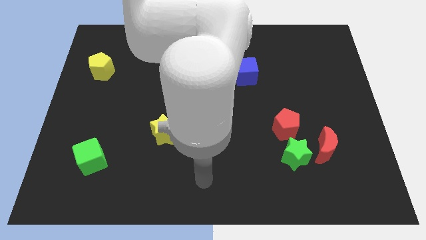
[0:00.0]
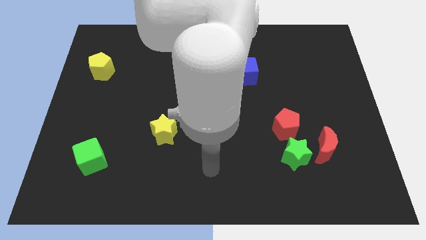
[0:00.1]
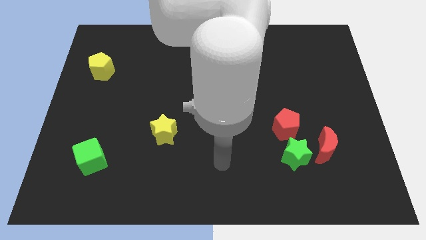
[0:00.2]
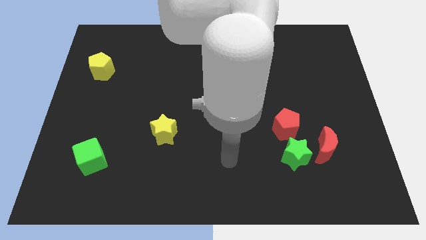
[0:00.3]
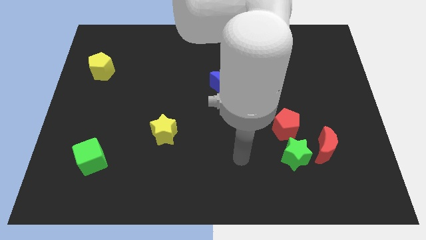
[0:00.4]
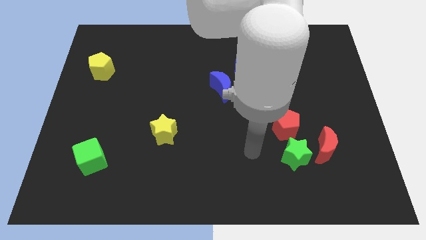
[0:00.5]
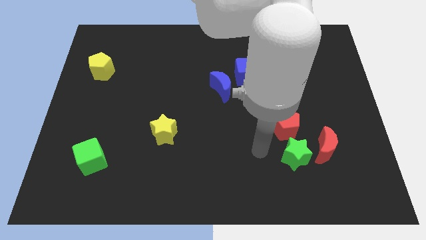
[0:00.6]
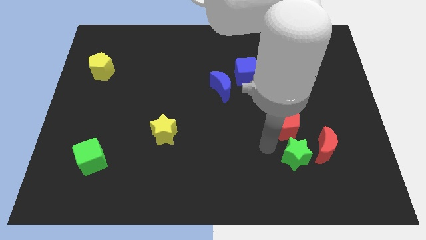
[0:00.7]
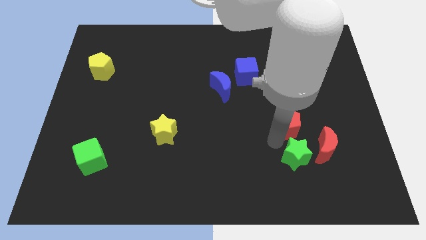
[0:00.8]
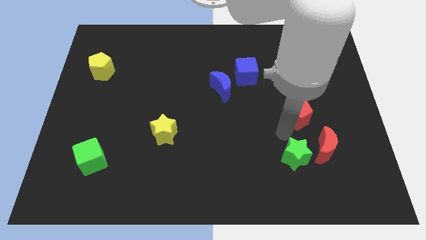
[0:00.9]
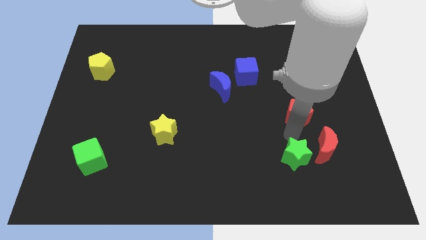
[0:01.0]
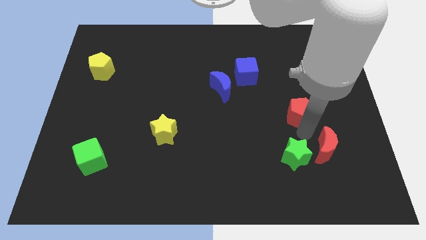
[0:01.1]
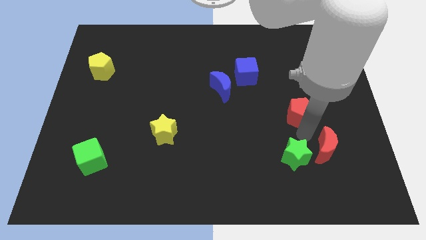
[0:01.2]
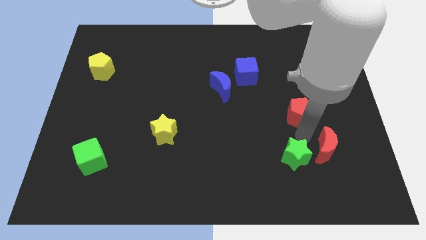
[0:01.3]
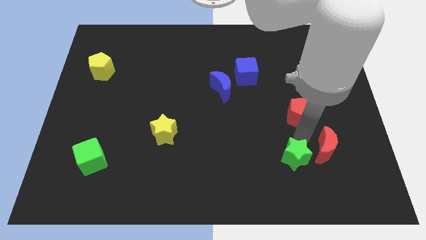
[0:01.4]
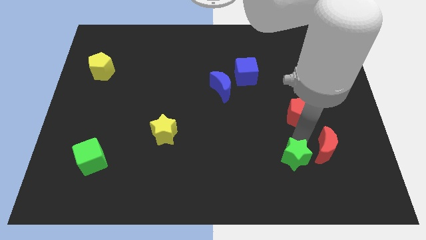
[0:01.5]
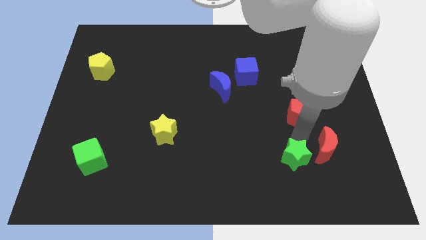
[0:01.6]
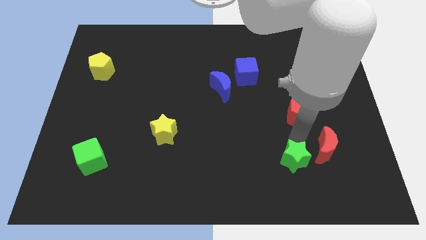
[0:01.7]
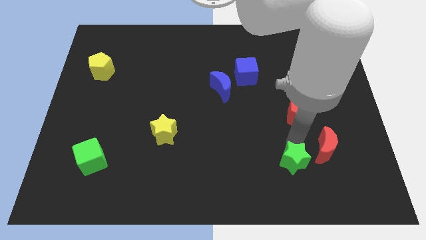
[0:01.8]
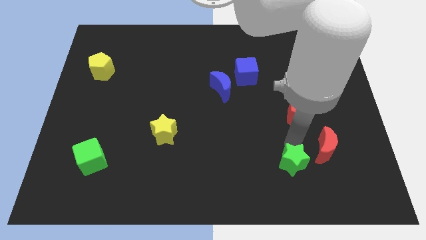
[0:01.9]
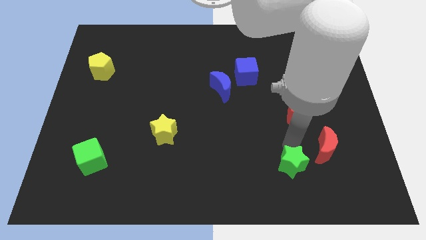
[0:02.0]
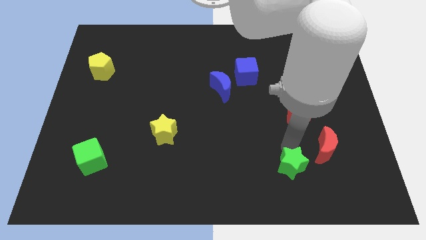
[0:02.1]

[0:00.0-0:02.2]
move the green star away from the red moon and red pentagon

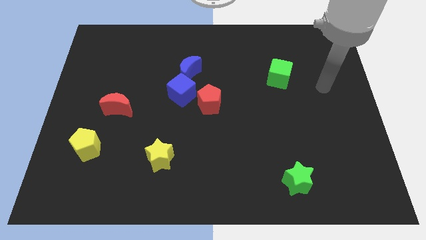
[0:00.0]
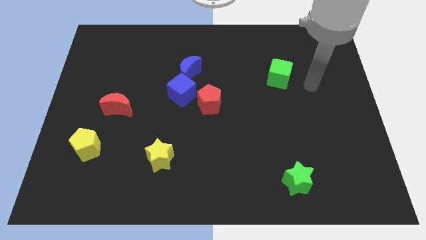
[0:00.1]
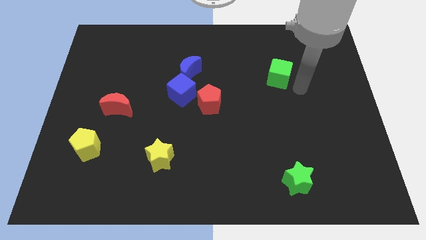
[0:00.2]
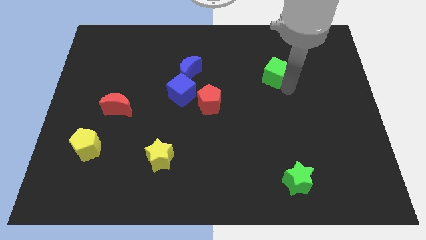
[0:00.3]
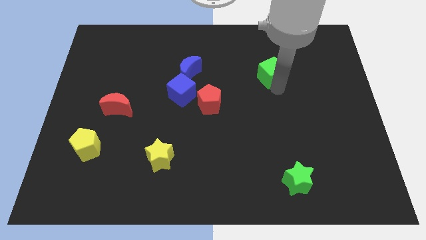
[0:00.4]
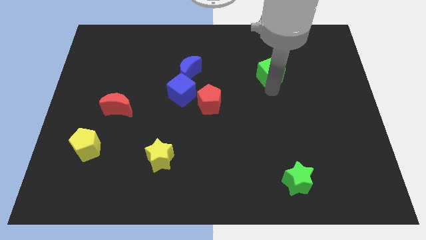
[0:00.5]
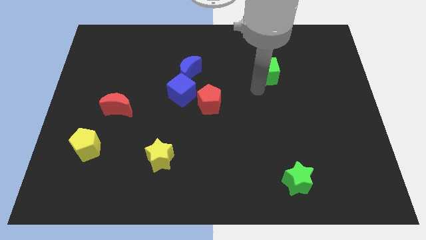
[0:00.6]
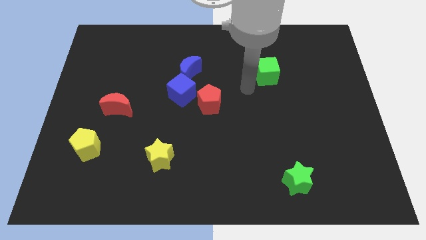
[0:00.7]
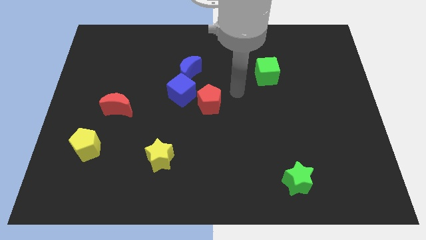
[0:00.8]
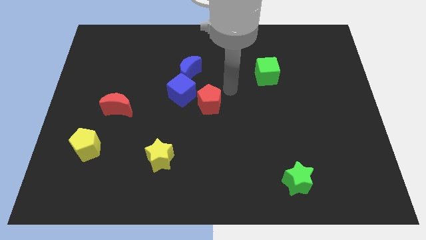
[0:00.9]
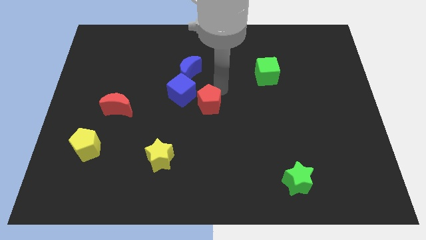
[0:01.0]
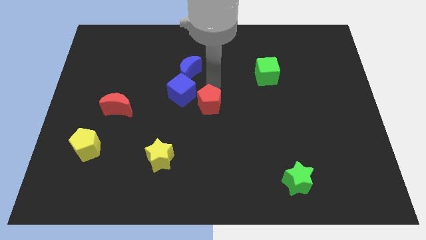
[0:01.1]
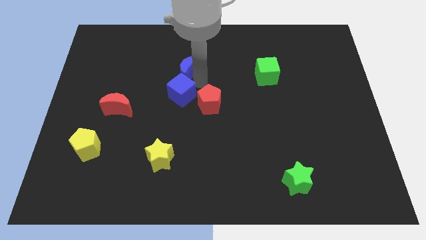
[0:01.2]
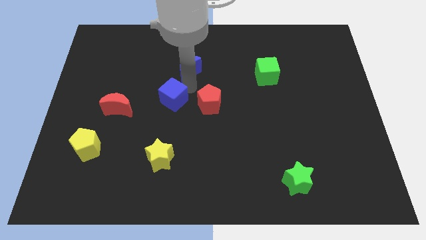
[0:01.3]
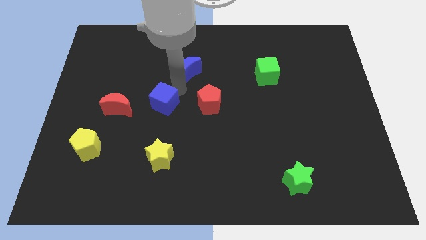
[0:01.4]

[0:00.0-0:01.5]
separate the blue moon from the blue cube

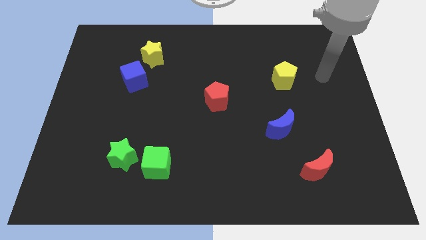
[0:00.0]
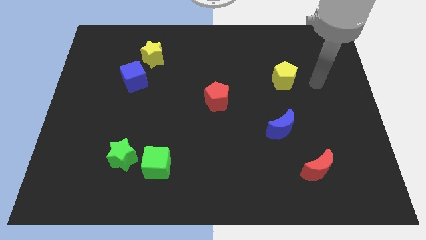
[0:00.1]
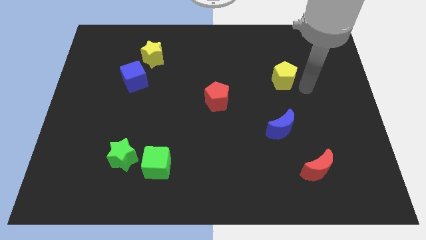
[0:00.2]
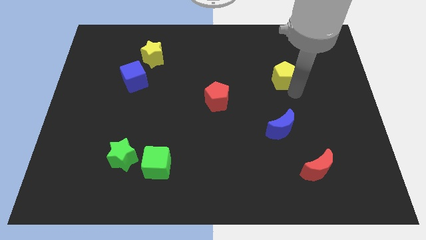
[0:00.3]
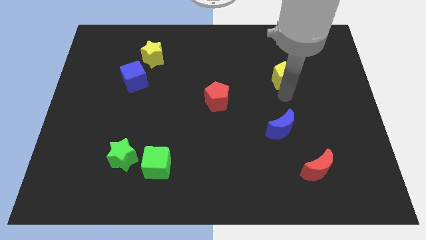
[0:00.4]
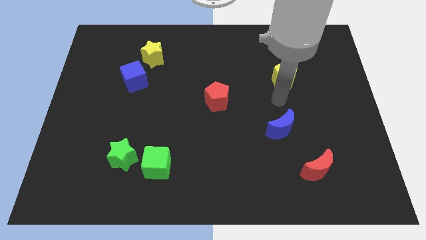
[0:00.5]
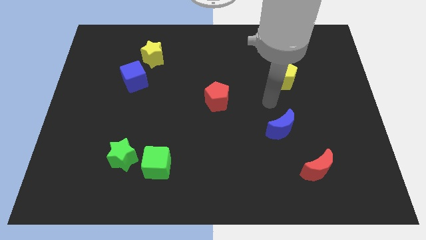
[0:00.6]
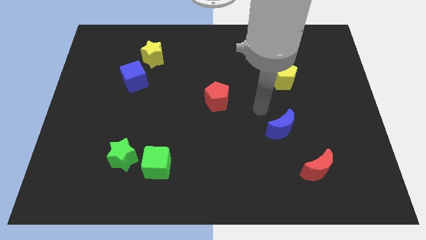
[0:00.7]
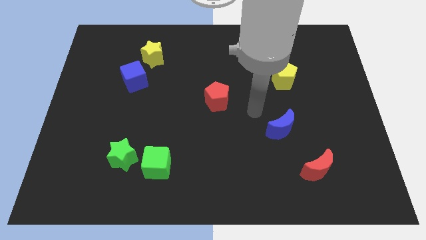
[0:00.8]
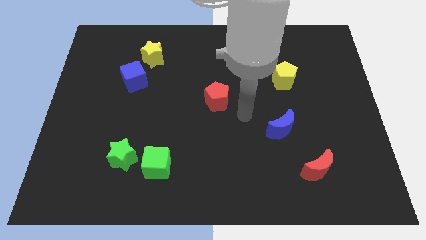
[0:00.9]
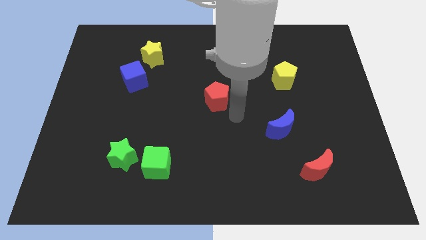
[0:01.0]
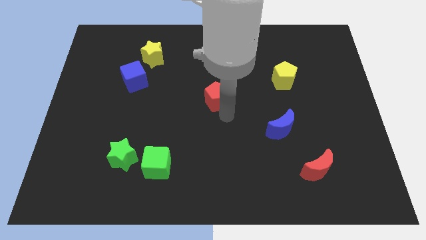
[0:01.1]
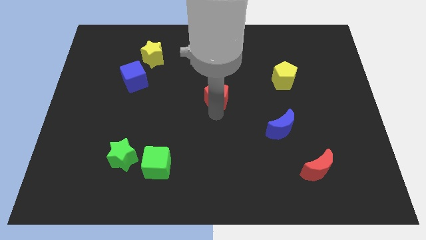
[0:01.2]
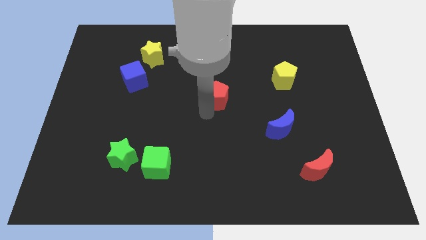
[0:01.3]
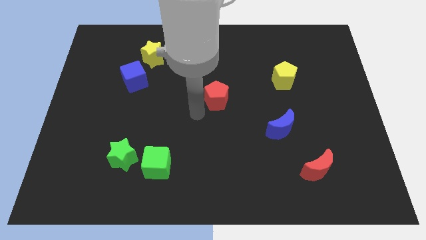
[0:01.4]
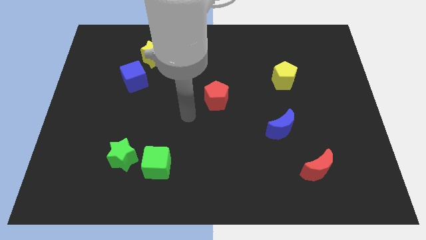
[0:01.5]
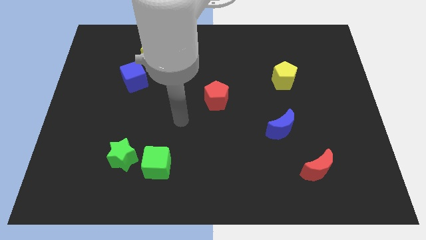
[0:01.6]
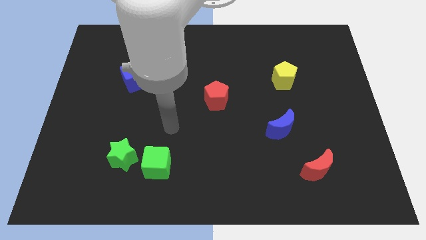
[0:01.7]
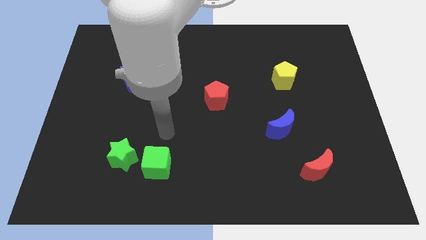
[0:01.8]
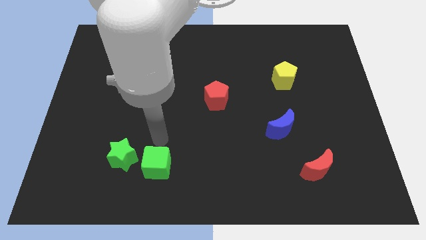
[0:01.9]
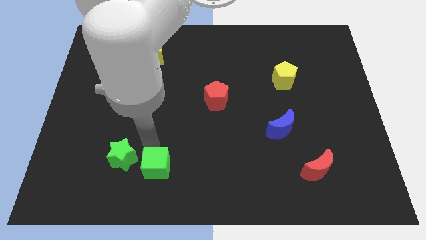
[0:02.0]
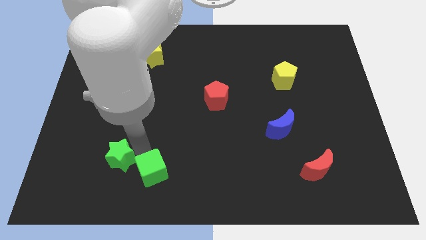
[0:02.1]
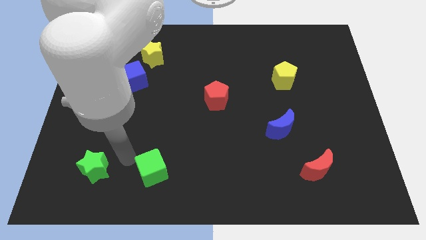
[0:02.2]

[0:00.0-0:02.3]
pull the green cube apart from the green star

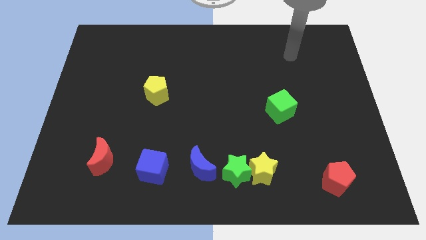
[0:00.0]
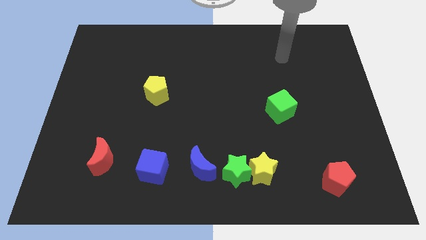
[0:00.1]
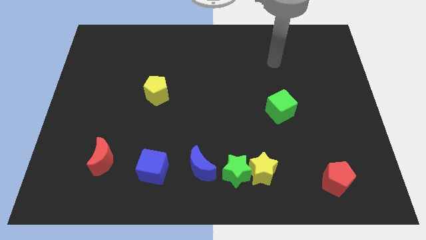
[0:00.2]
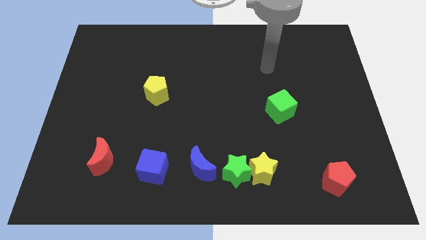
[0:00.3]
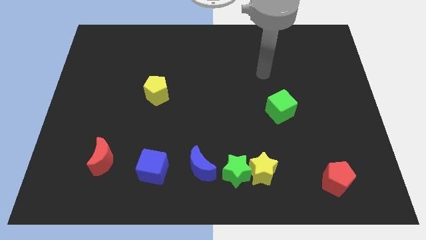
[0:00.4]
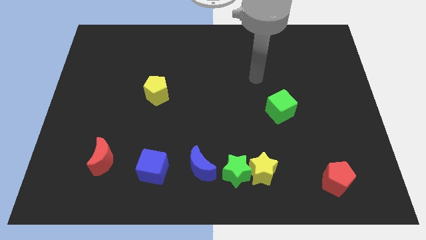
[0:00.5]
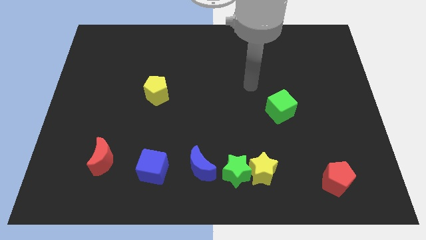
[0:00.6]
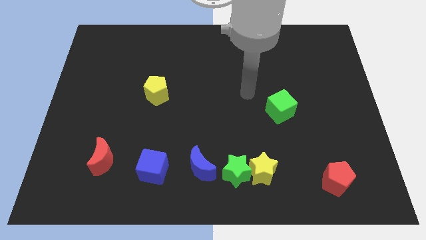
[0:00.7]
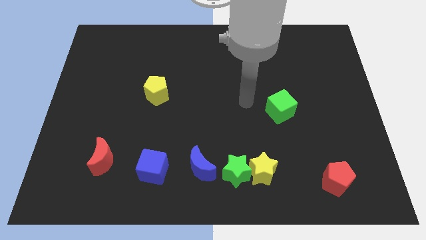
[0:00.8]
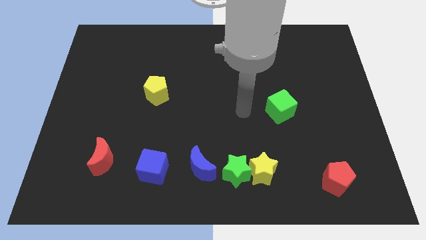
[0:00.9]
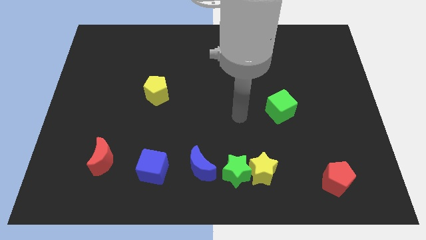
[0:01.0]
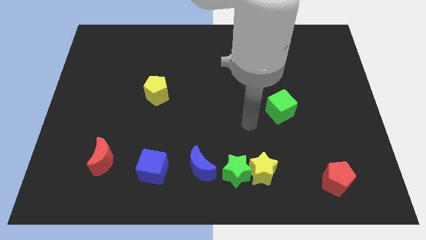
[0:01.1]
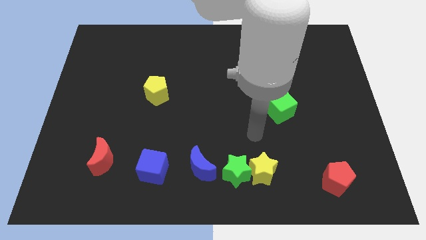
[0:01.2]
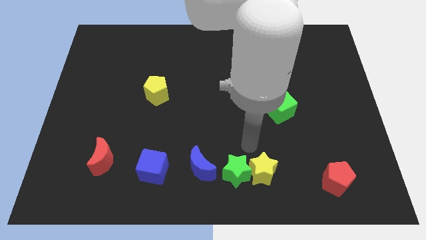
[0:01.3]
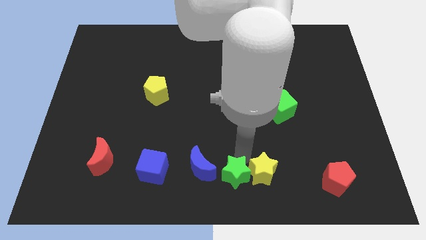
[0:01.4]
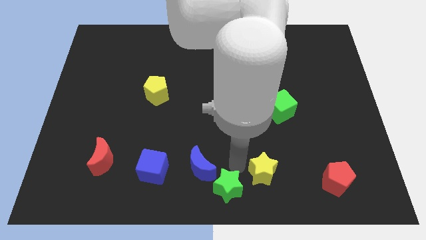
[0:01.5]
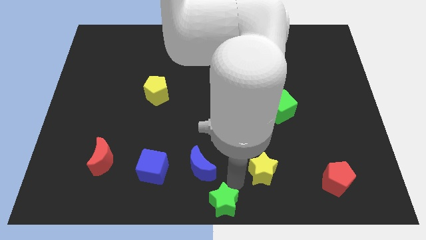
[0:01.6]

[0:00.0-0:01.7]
move the yellow star away from the green star

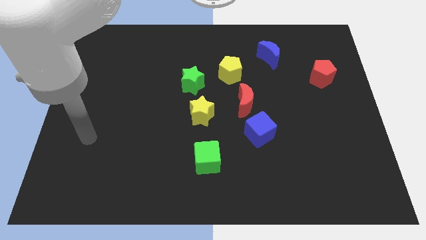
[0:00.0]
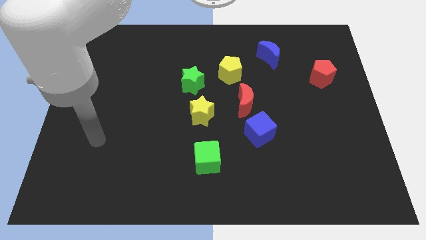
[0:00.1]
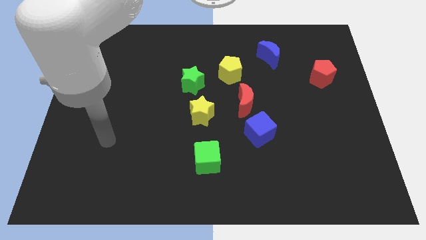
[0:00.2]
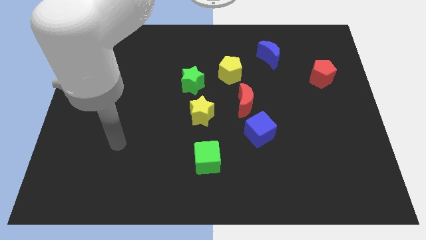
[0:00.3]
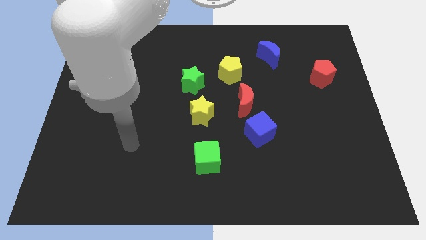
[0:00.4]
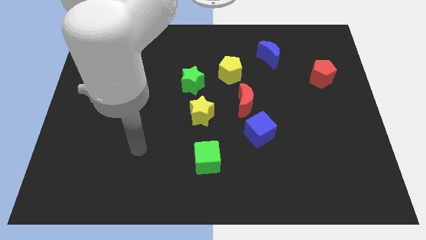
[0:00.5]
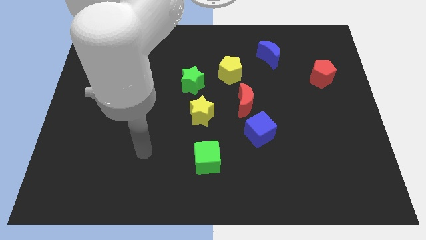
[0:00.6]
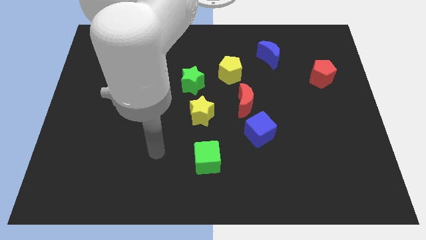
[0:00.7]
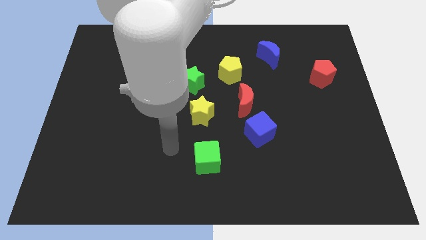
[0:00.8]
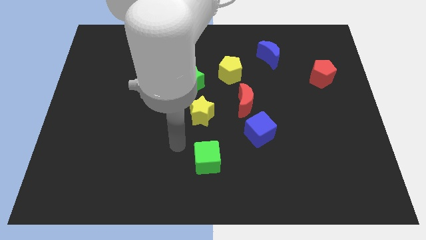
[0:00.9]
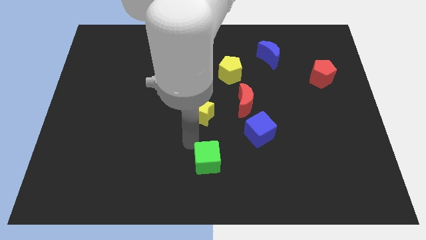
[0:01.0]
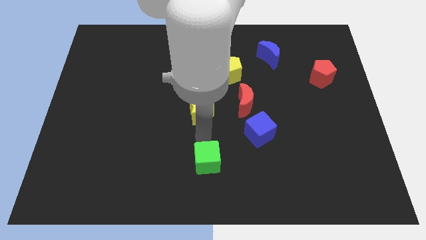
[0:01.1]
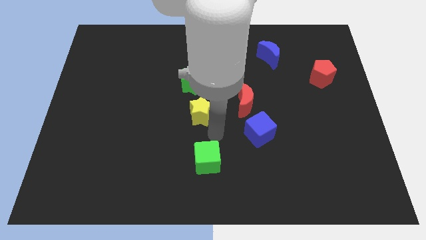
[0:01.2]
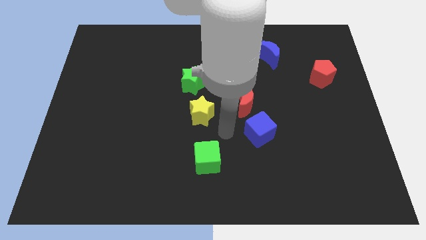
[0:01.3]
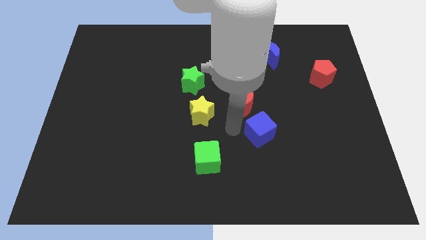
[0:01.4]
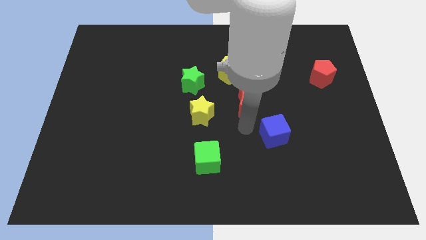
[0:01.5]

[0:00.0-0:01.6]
pull the red moon apart from the blue cube

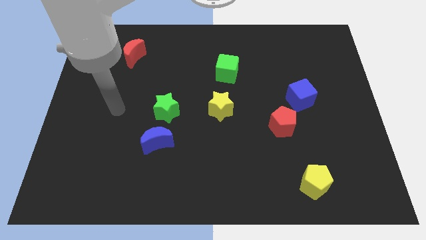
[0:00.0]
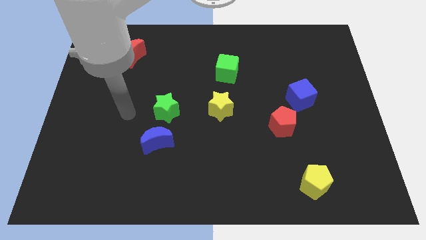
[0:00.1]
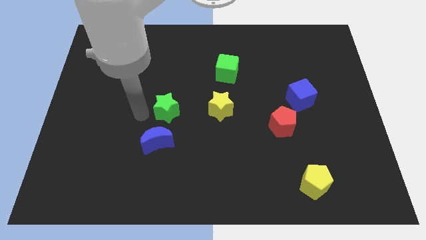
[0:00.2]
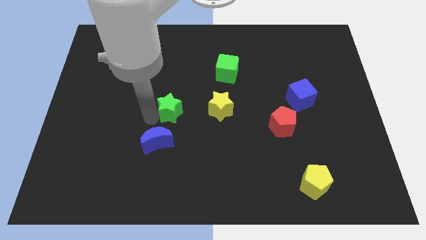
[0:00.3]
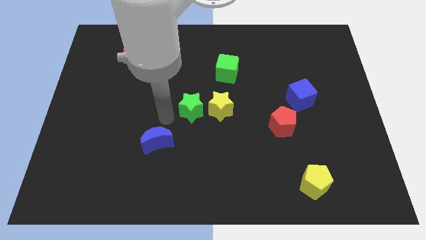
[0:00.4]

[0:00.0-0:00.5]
move the blue moon away from the green star
